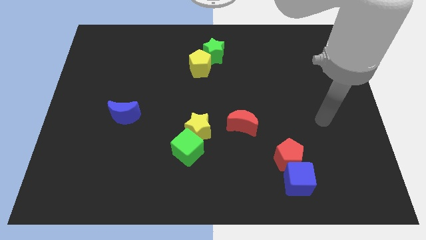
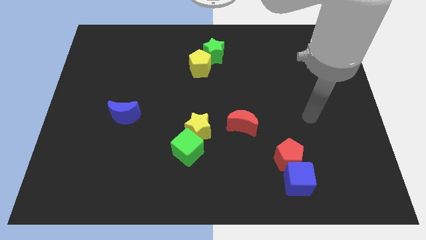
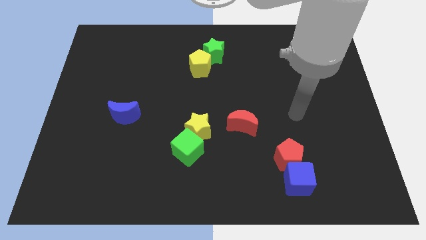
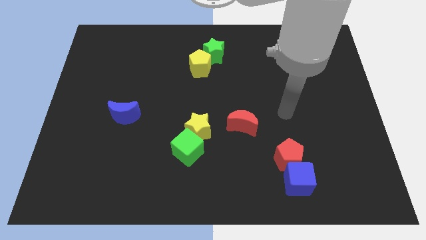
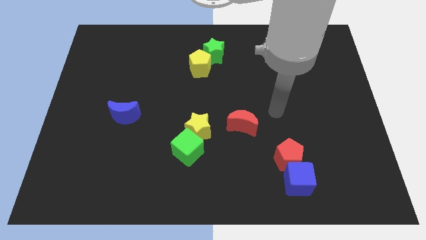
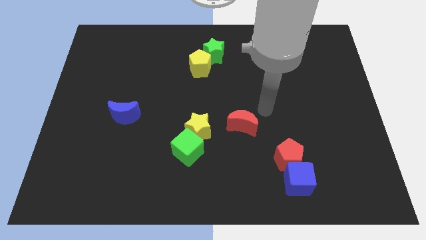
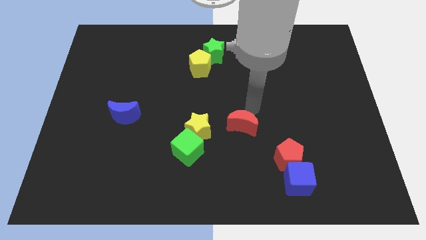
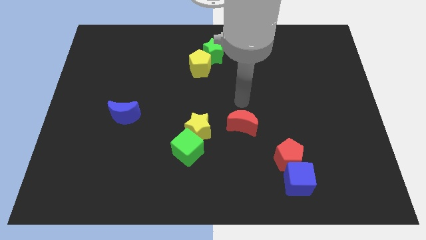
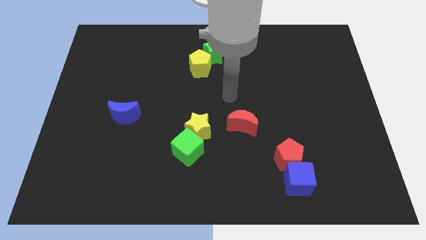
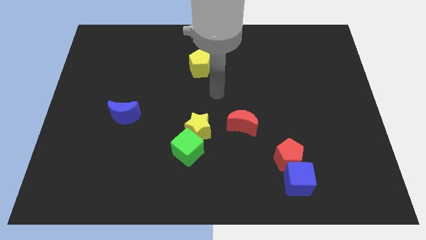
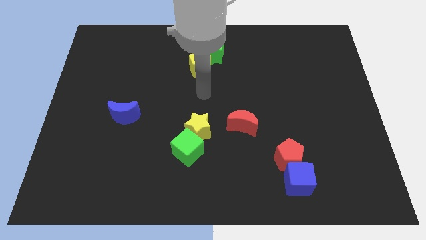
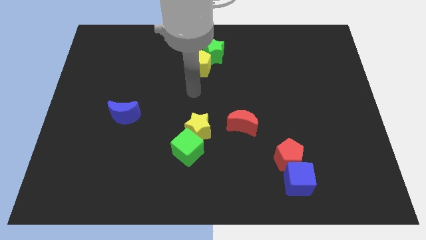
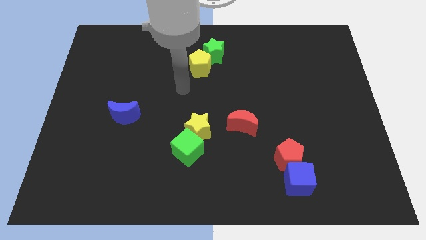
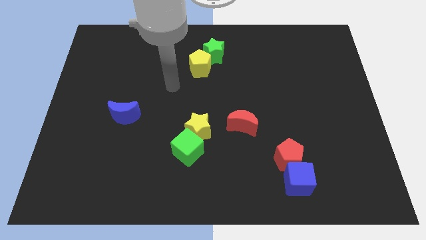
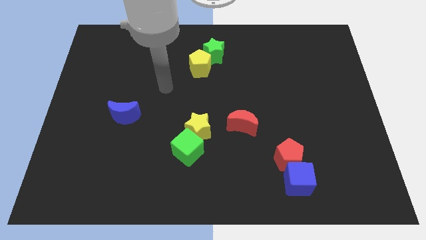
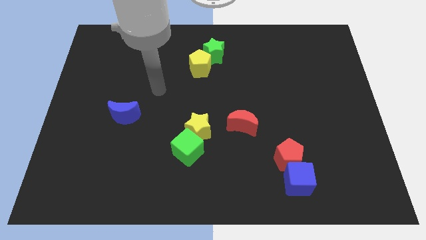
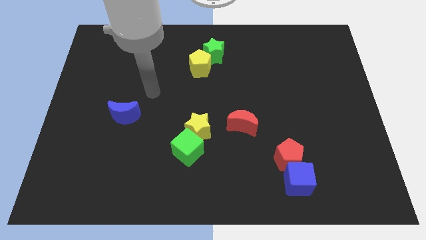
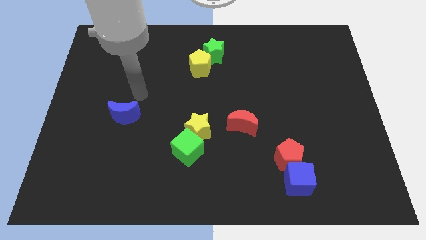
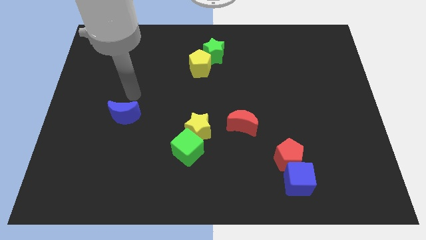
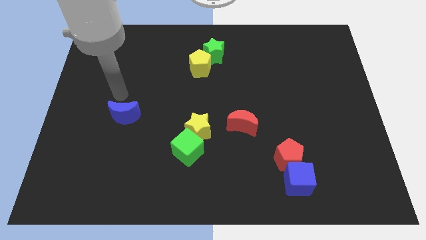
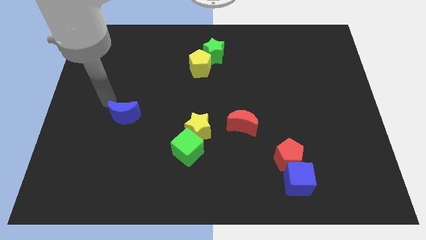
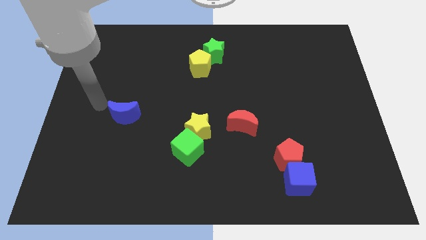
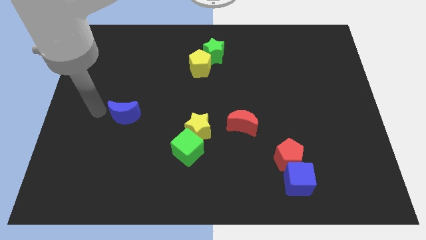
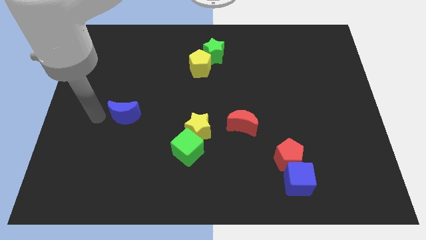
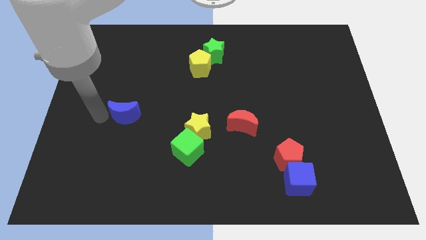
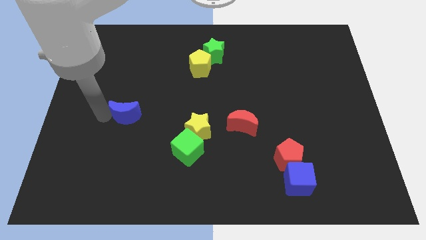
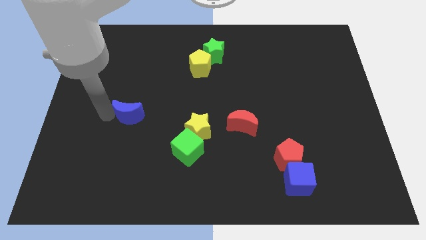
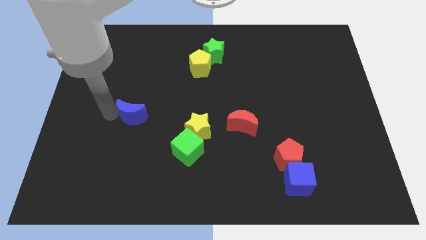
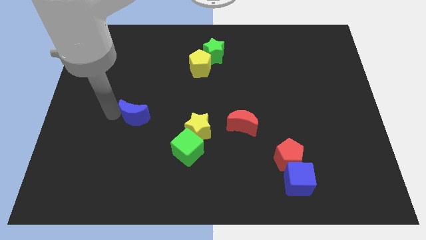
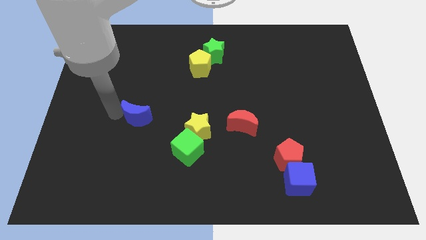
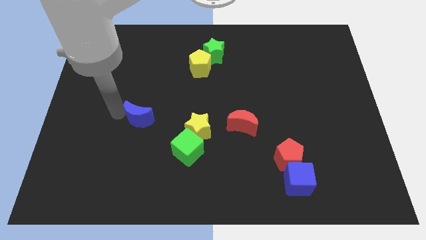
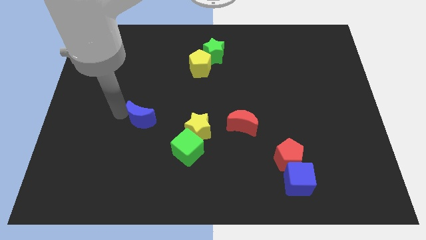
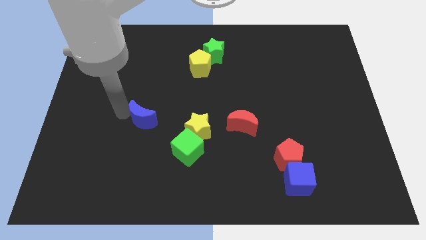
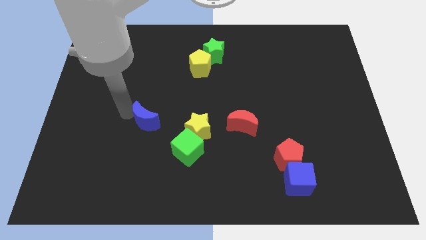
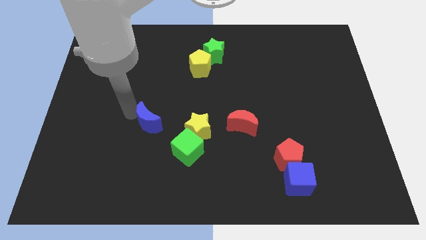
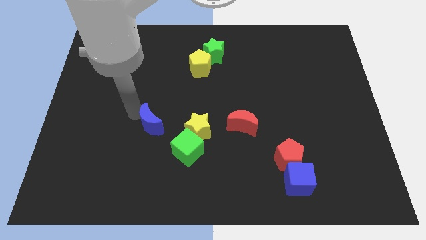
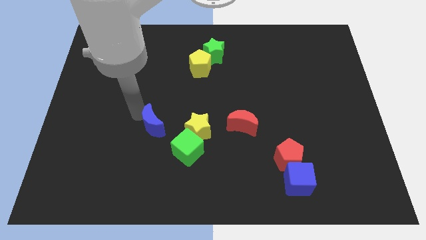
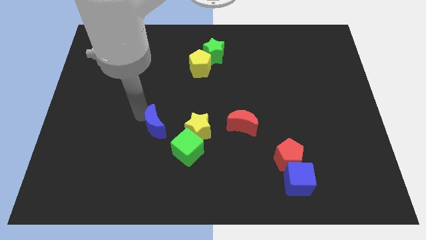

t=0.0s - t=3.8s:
slightly slide the blue moon to the right

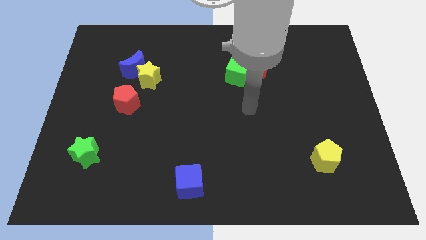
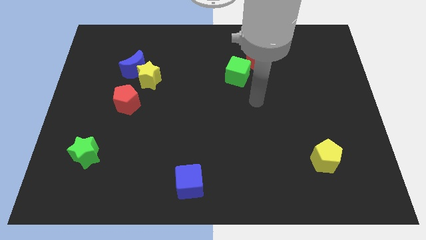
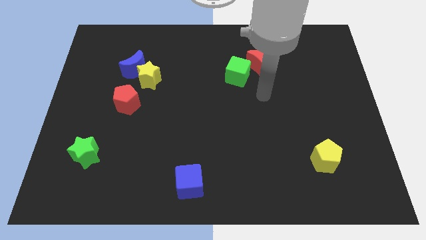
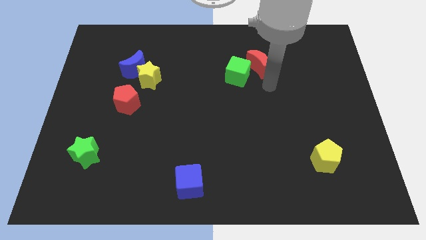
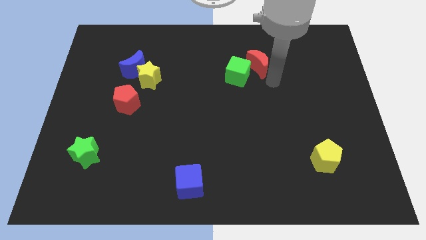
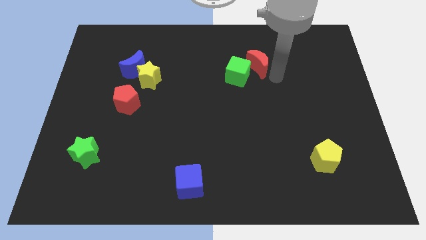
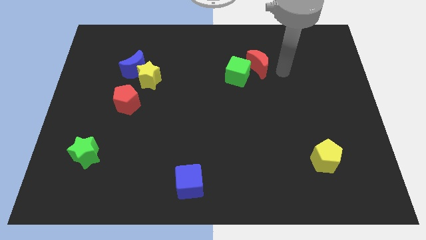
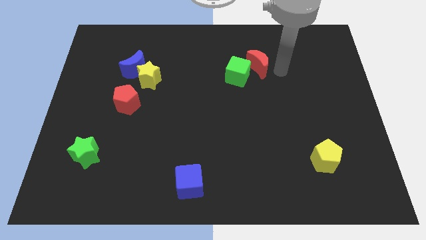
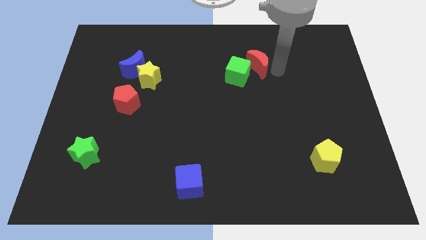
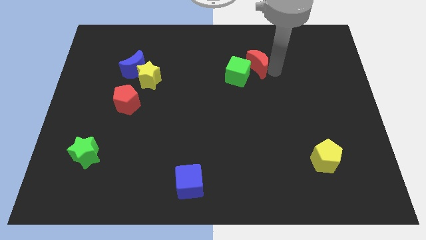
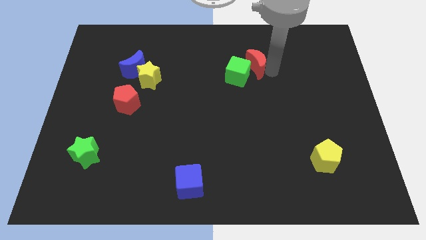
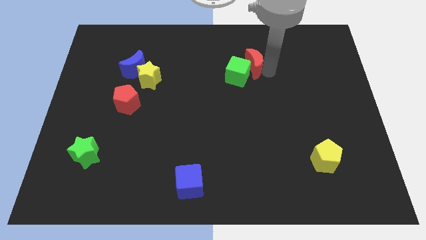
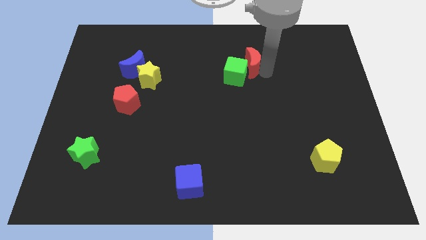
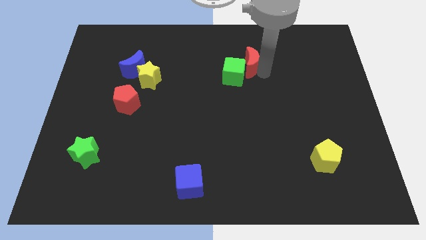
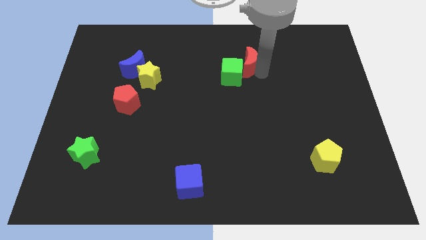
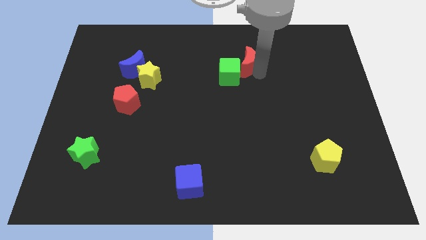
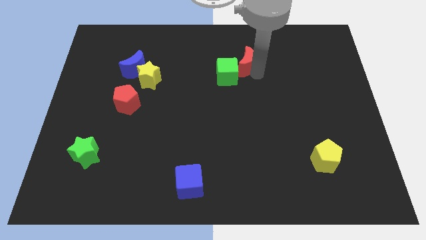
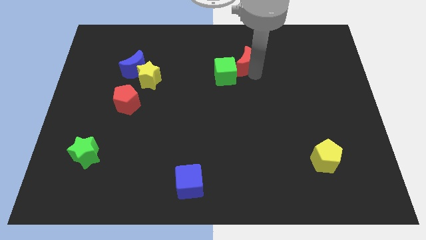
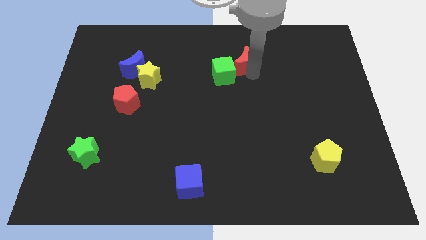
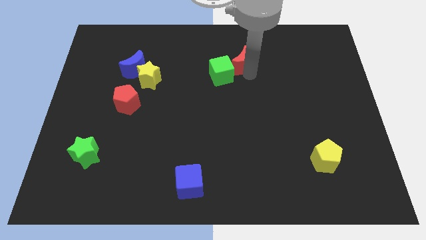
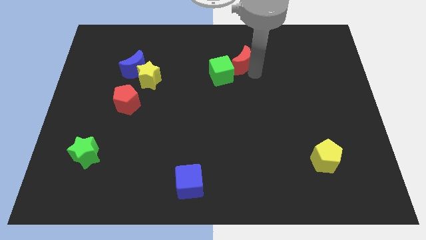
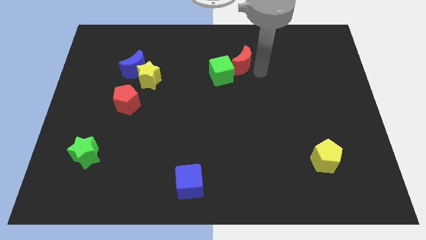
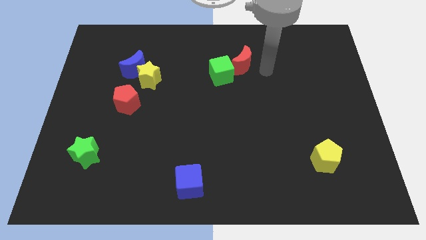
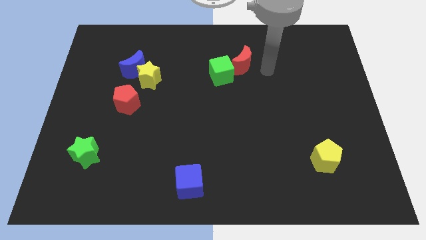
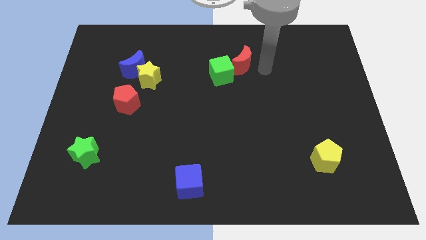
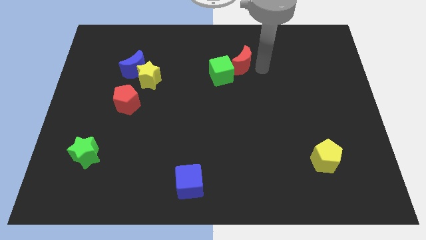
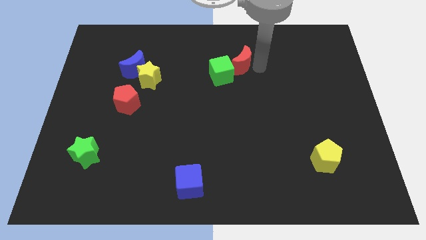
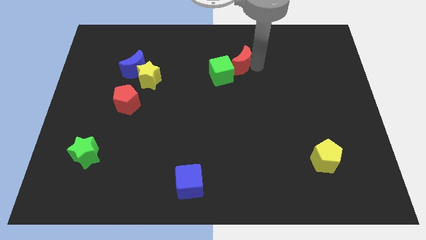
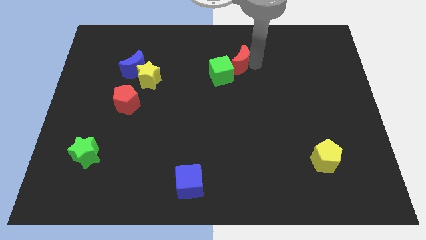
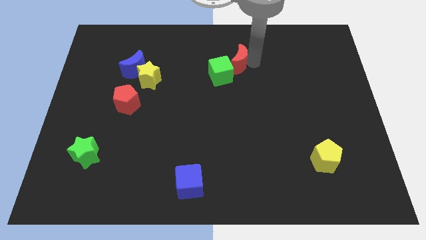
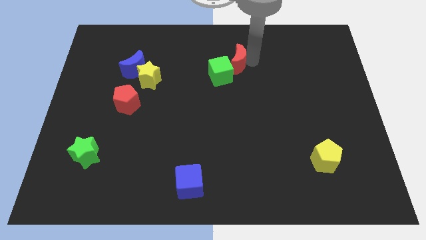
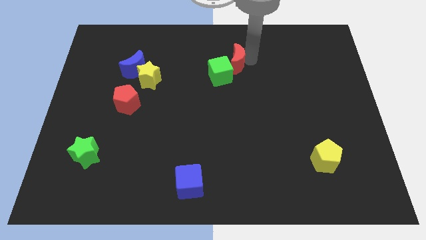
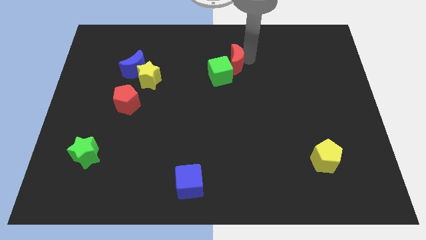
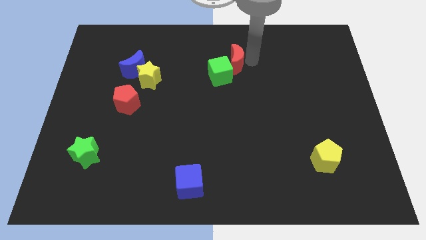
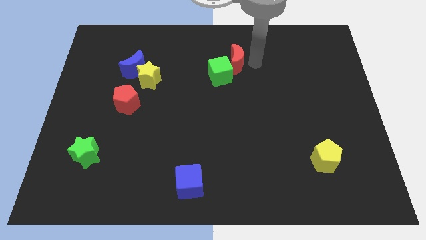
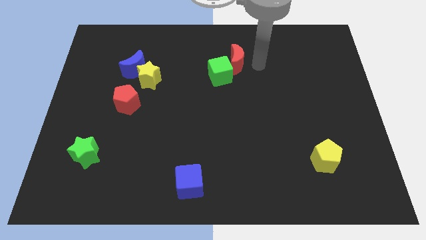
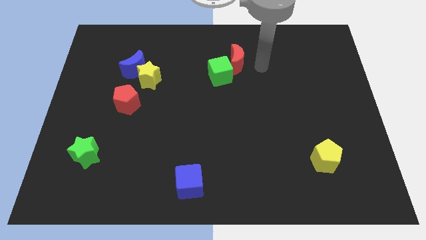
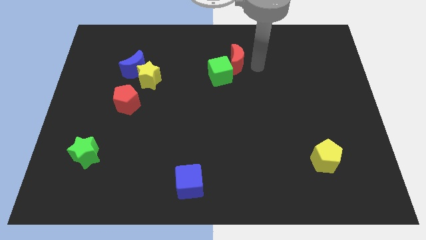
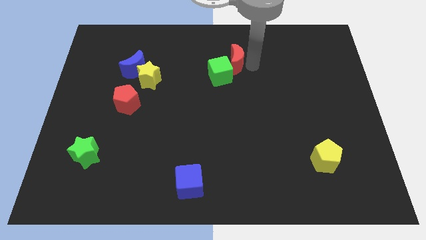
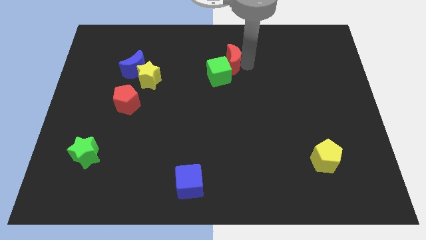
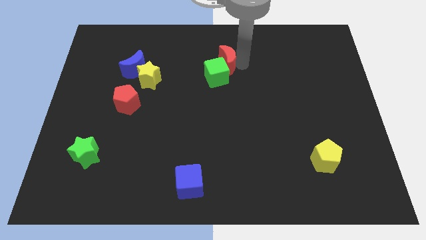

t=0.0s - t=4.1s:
slide the red moon left a little bit

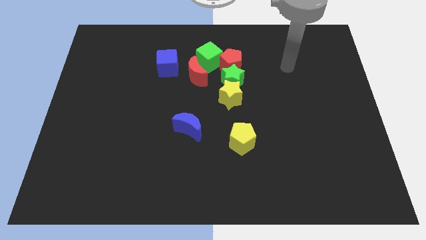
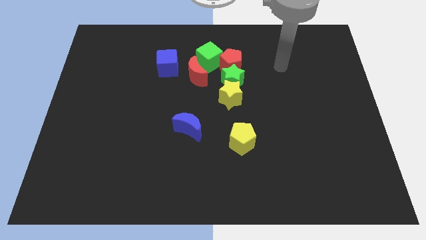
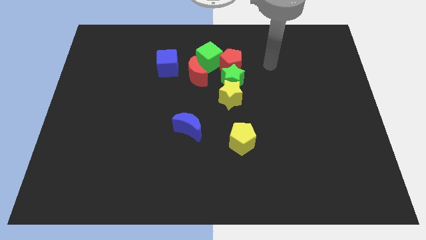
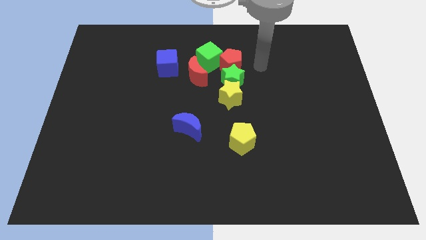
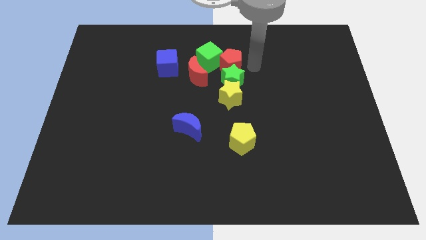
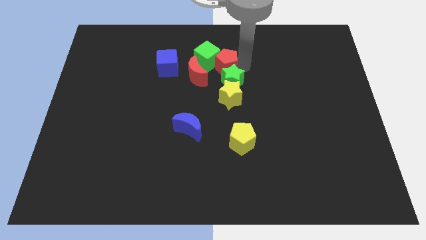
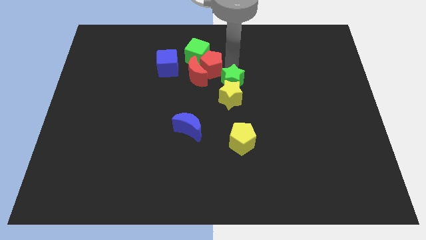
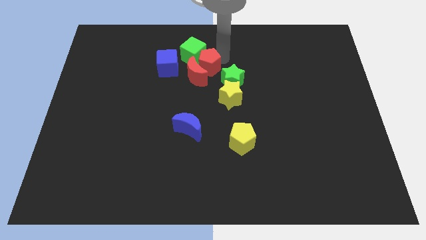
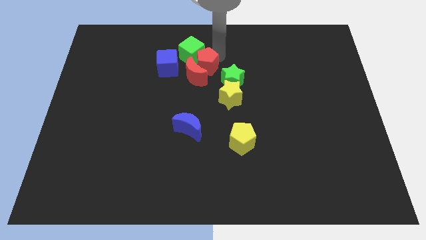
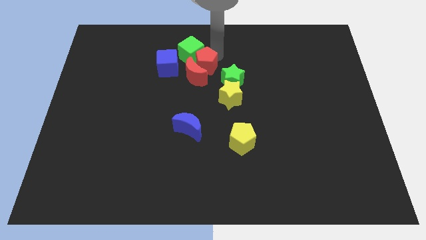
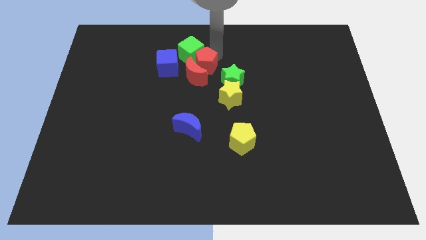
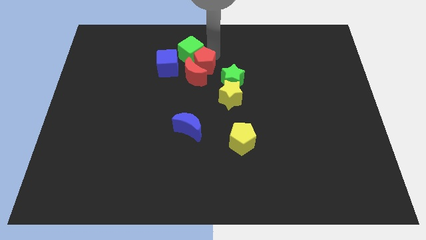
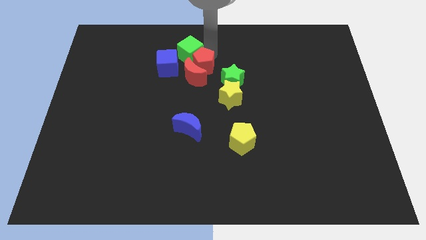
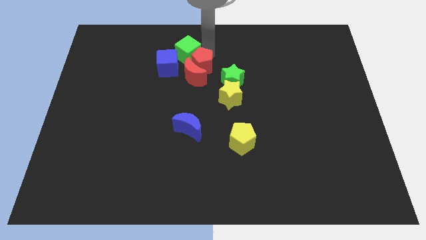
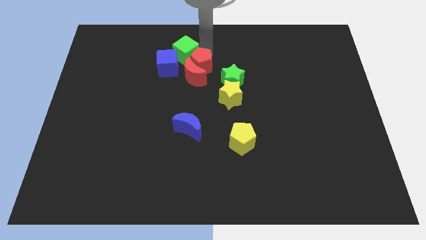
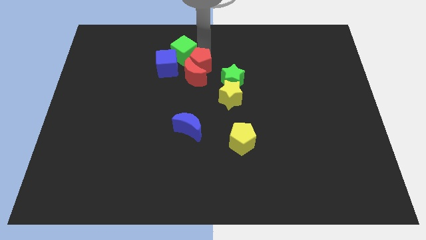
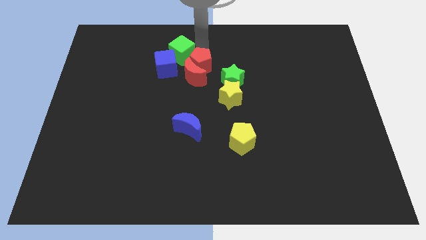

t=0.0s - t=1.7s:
push the green cube a little bit to the left
